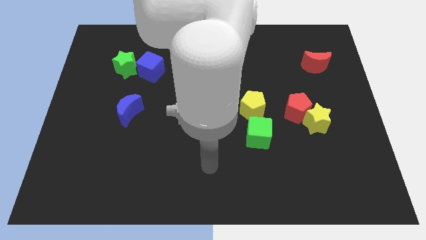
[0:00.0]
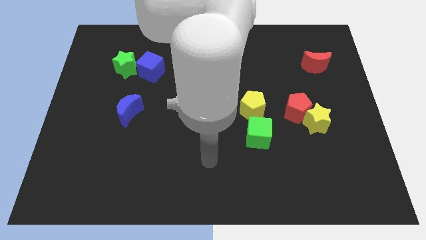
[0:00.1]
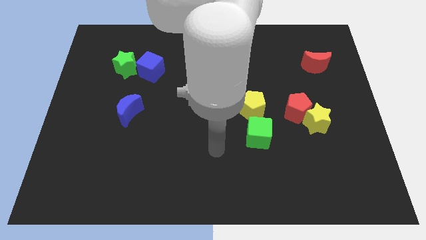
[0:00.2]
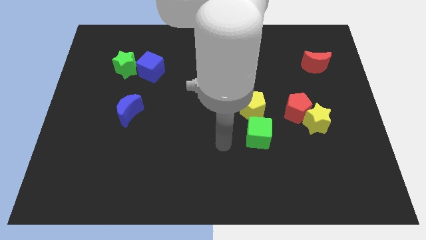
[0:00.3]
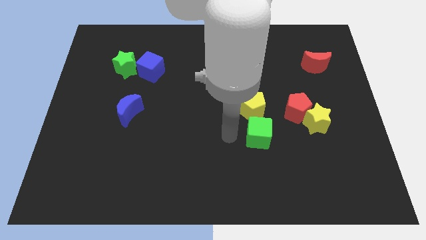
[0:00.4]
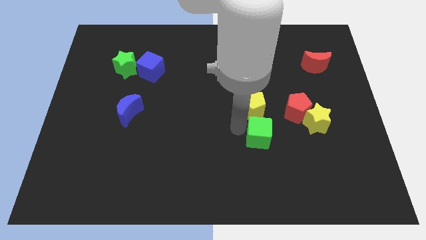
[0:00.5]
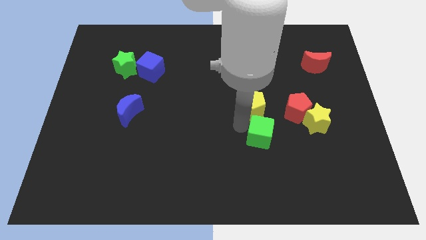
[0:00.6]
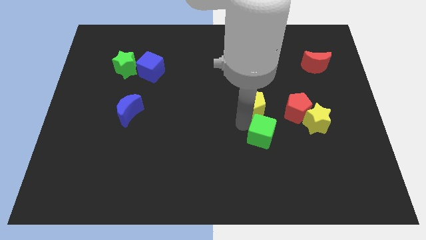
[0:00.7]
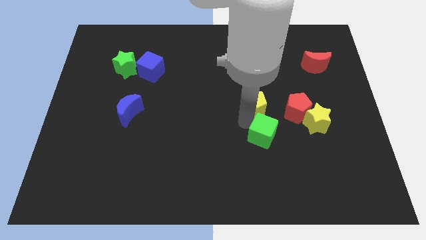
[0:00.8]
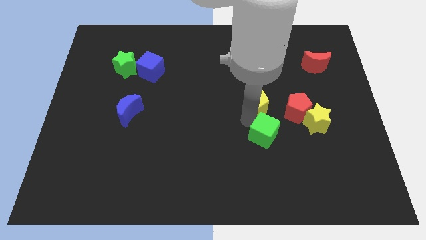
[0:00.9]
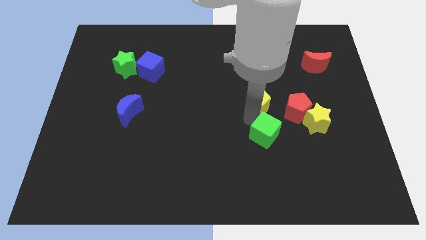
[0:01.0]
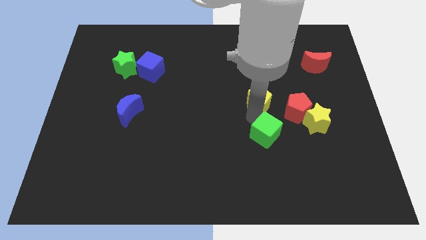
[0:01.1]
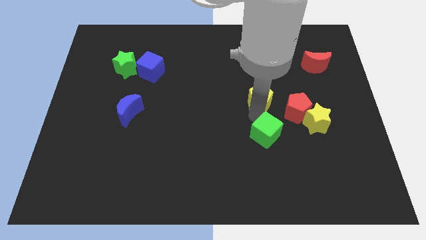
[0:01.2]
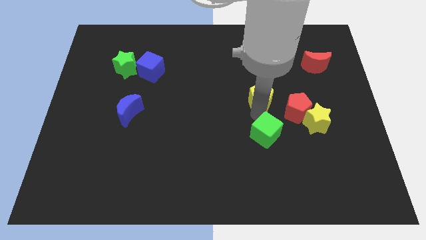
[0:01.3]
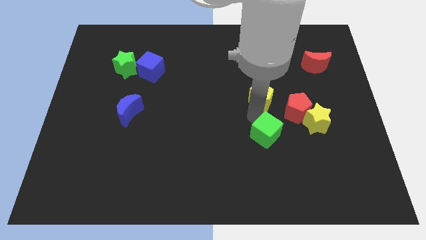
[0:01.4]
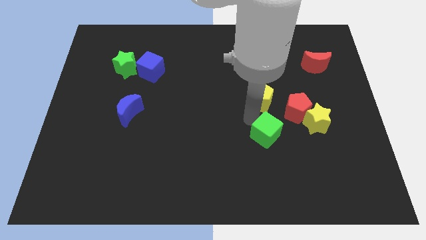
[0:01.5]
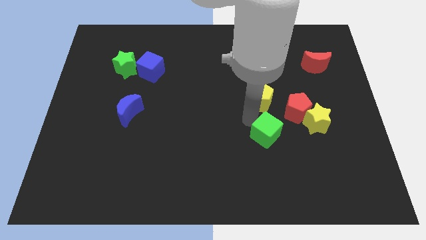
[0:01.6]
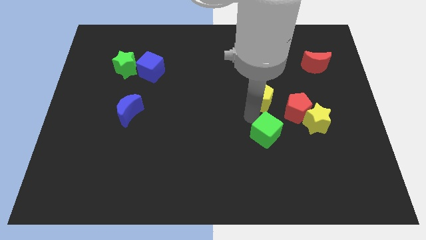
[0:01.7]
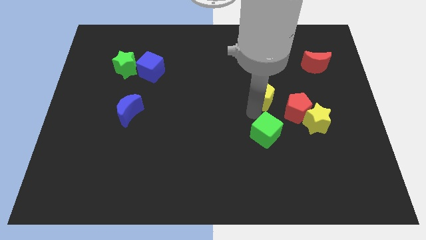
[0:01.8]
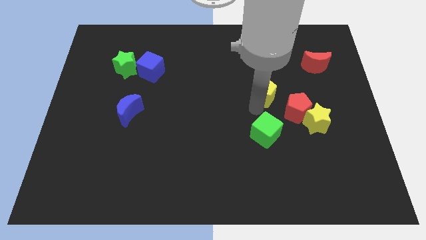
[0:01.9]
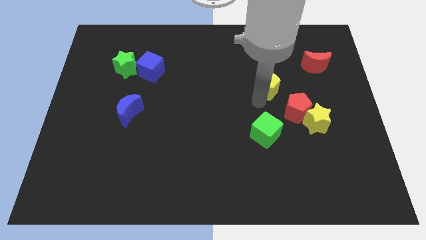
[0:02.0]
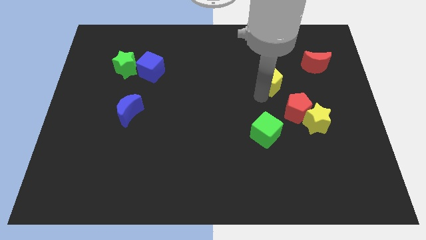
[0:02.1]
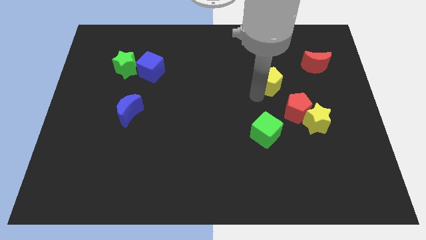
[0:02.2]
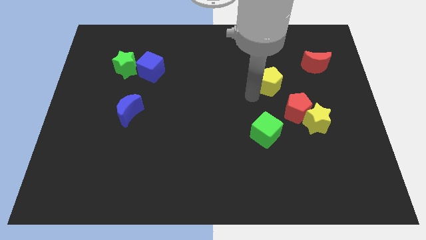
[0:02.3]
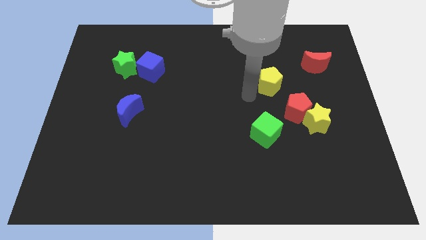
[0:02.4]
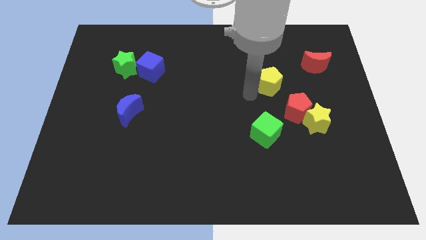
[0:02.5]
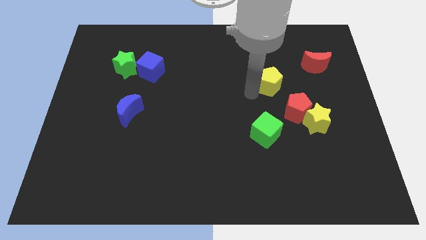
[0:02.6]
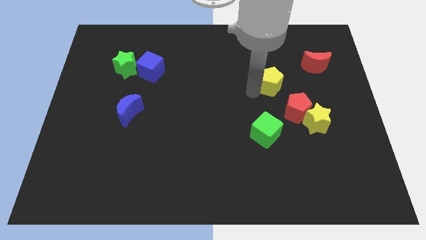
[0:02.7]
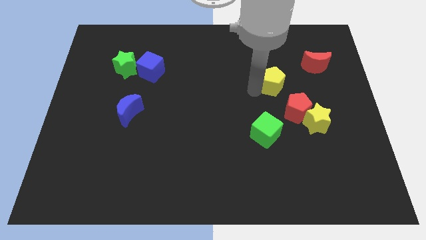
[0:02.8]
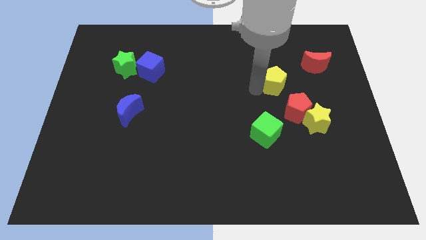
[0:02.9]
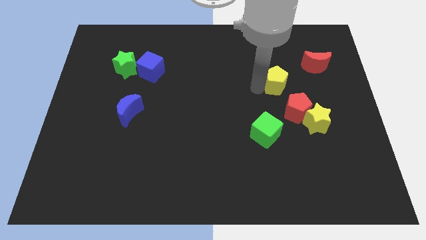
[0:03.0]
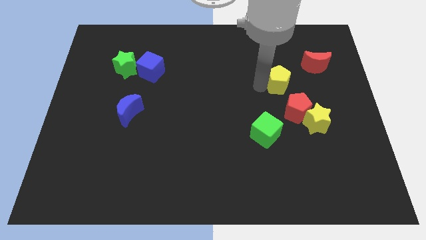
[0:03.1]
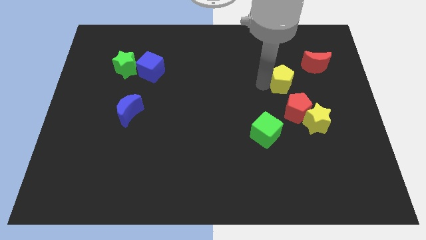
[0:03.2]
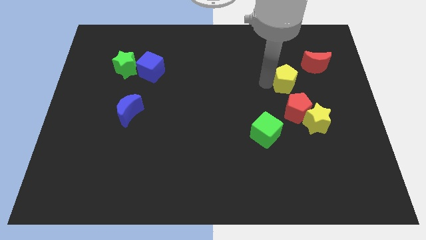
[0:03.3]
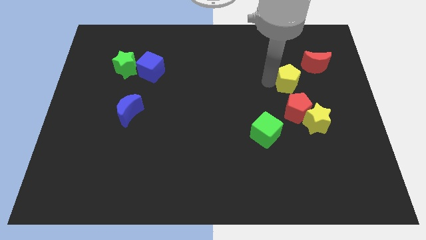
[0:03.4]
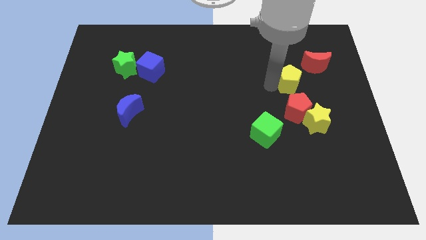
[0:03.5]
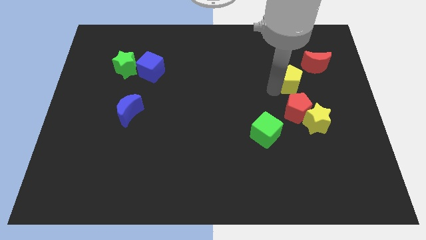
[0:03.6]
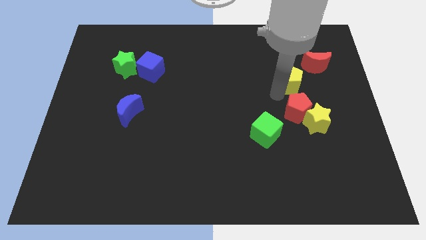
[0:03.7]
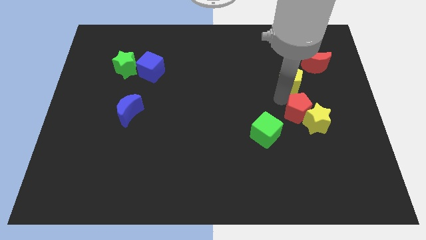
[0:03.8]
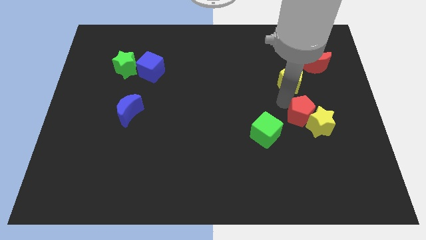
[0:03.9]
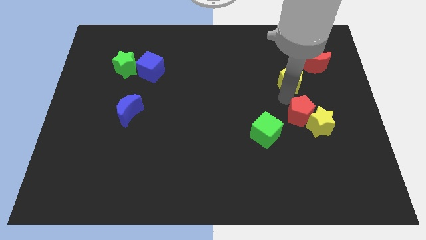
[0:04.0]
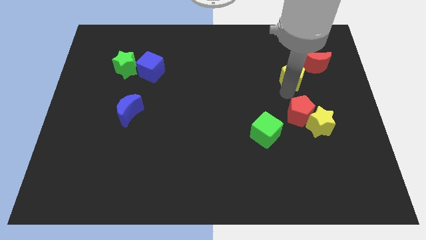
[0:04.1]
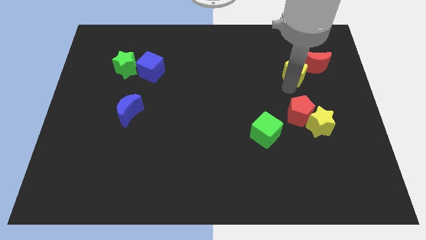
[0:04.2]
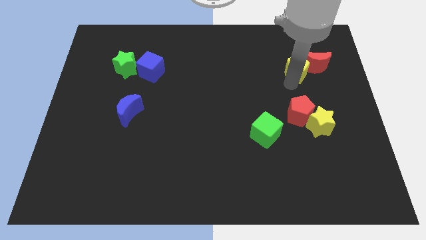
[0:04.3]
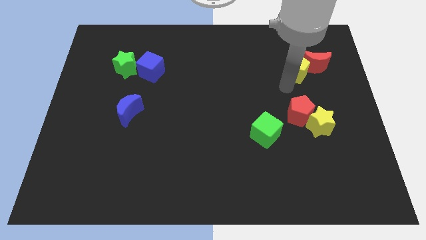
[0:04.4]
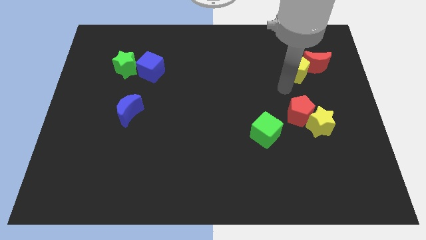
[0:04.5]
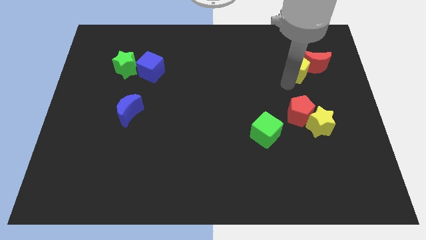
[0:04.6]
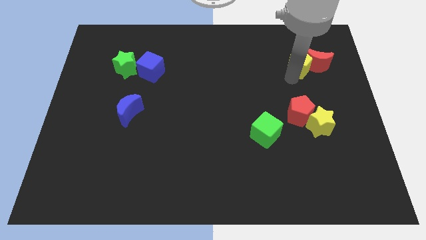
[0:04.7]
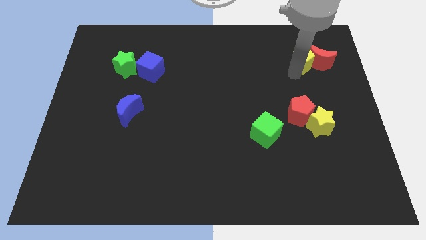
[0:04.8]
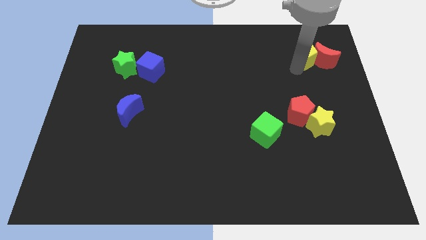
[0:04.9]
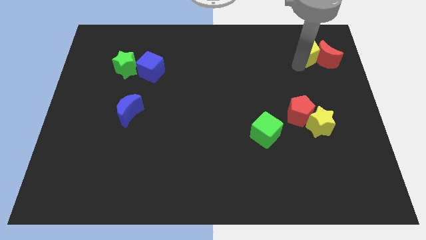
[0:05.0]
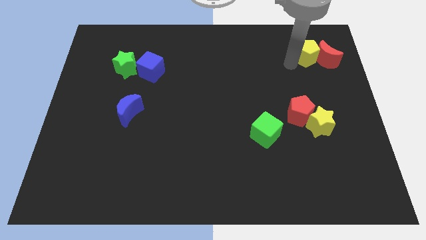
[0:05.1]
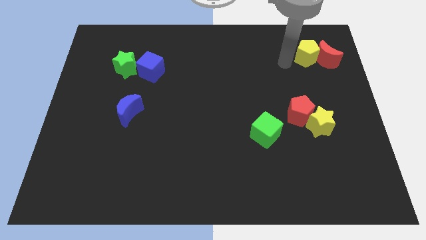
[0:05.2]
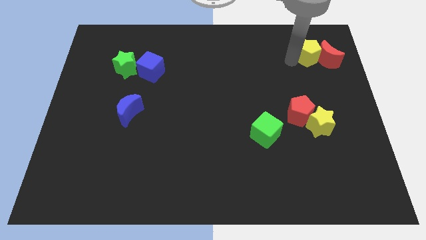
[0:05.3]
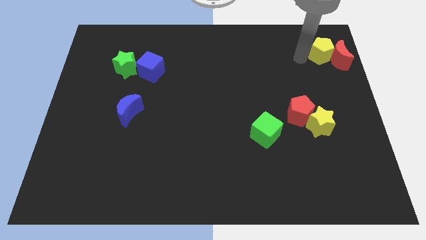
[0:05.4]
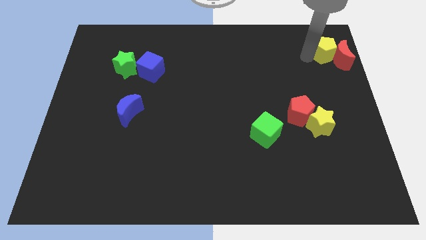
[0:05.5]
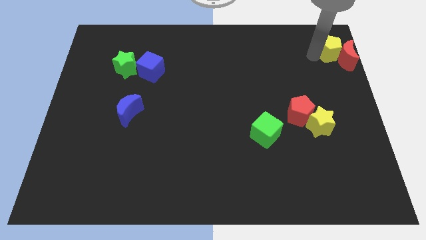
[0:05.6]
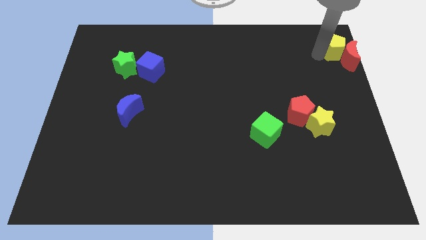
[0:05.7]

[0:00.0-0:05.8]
move the yellow pentagon to the top right of the board

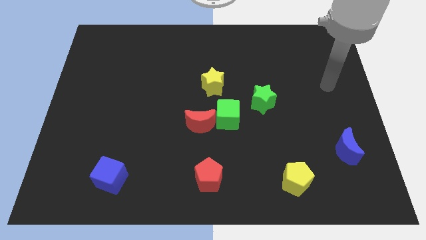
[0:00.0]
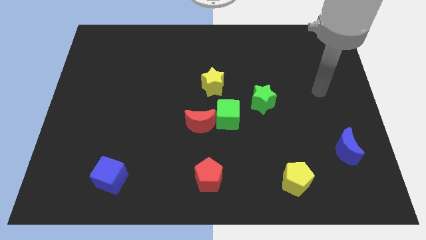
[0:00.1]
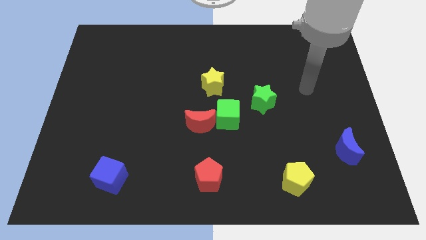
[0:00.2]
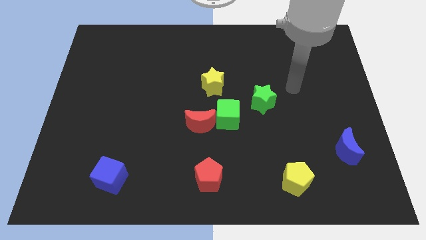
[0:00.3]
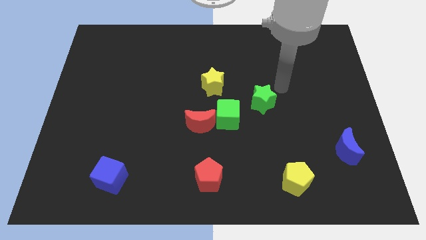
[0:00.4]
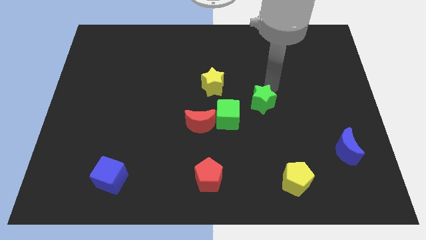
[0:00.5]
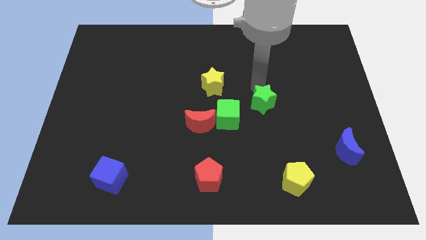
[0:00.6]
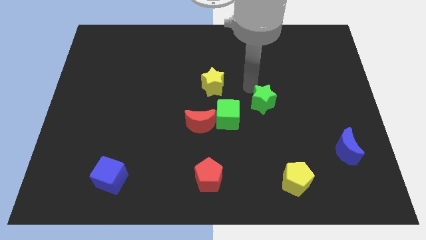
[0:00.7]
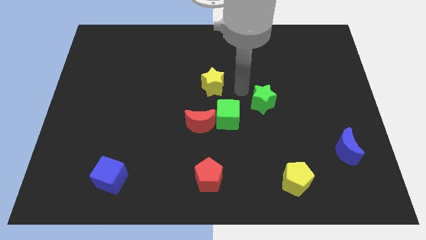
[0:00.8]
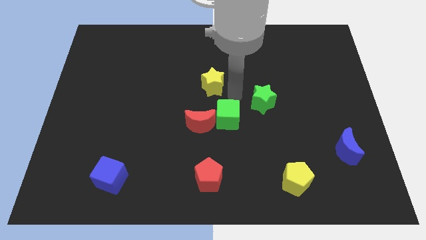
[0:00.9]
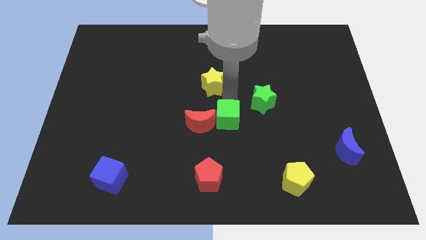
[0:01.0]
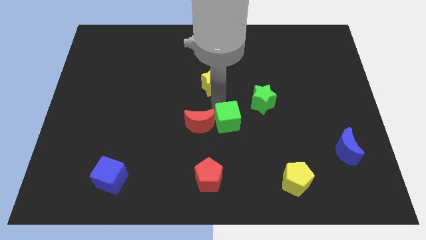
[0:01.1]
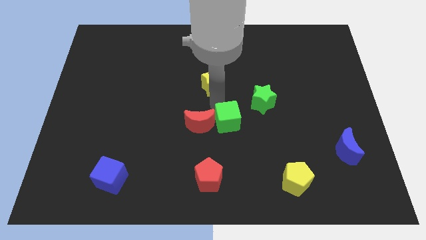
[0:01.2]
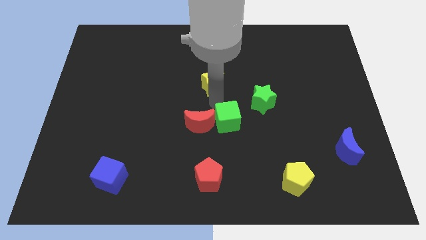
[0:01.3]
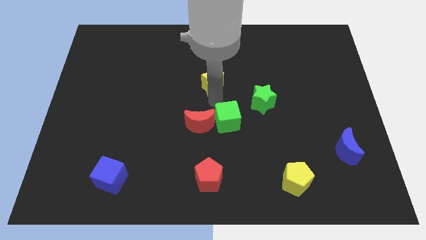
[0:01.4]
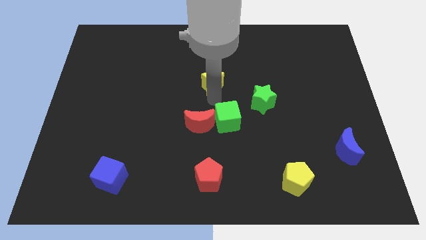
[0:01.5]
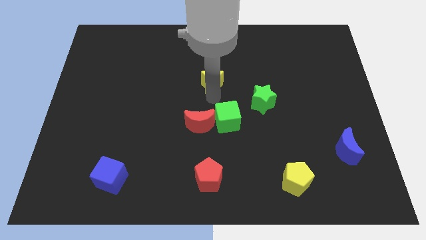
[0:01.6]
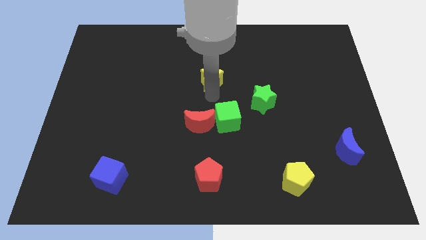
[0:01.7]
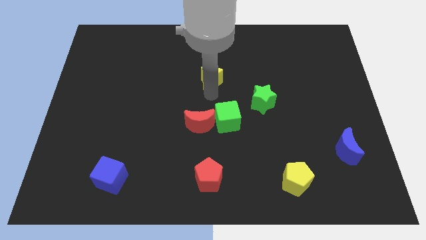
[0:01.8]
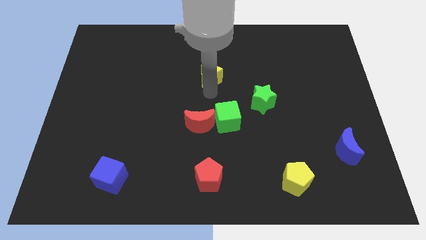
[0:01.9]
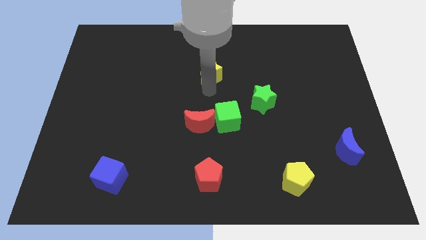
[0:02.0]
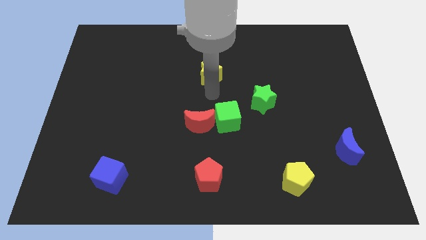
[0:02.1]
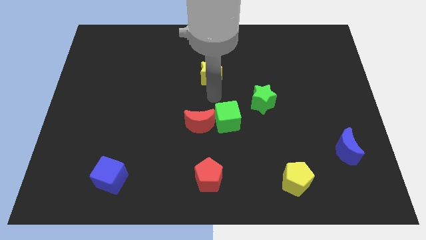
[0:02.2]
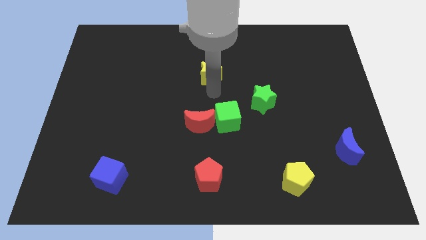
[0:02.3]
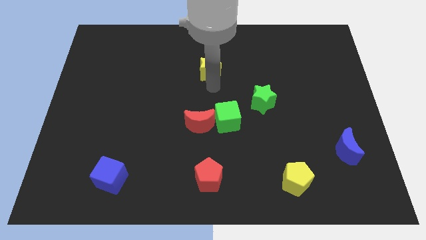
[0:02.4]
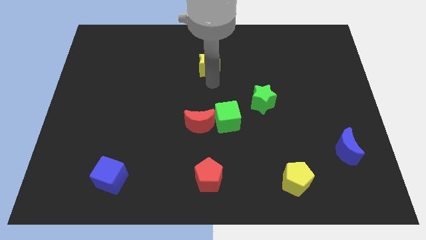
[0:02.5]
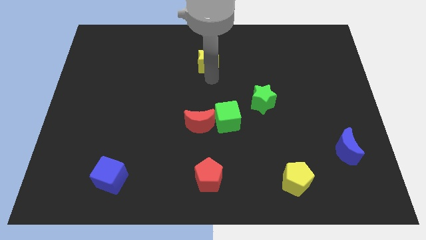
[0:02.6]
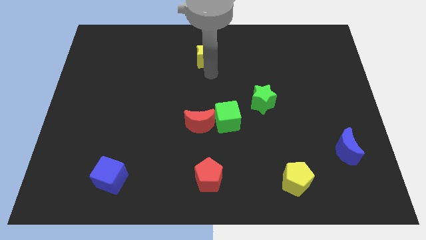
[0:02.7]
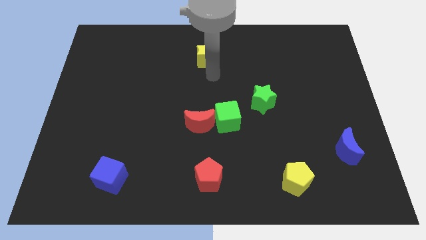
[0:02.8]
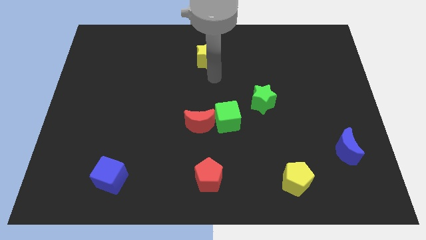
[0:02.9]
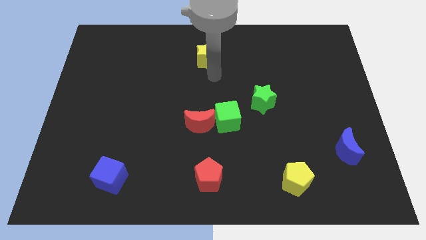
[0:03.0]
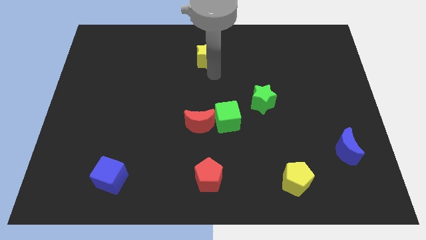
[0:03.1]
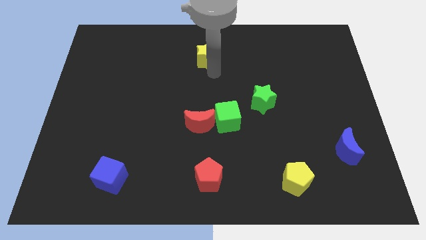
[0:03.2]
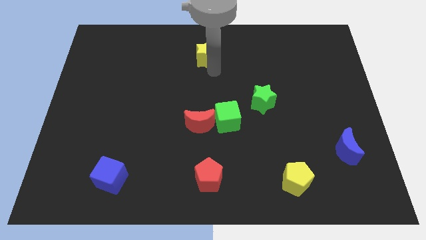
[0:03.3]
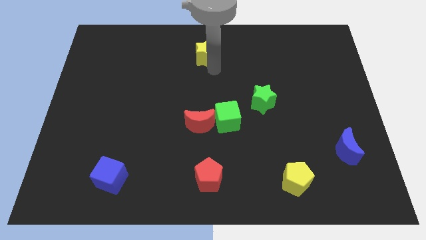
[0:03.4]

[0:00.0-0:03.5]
put the yellow star to the top
